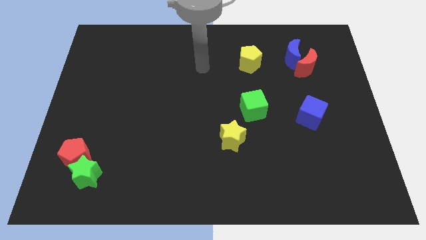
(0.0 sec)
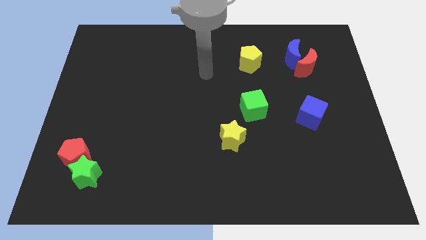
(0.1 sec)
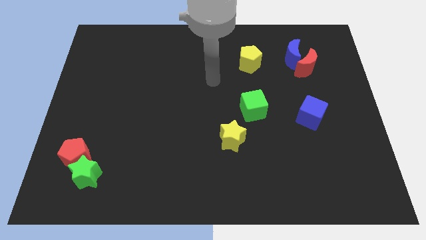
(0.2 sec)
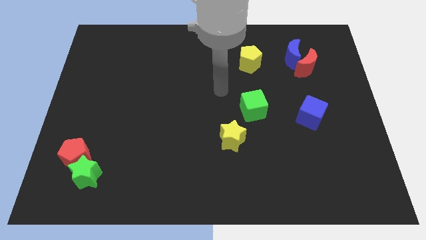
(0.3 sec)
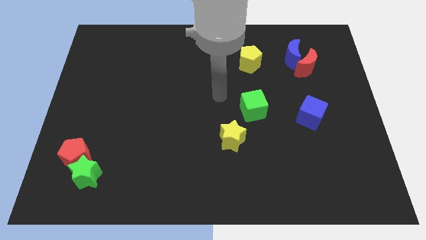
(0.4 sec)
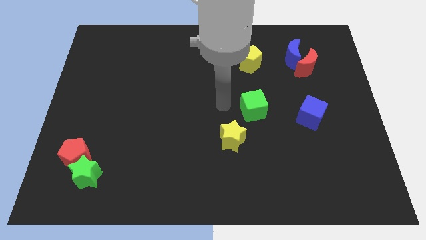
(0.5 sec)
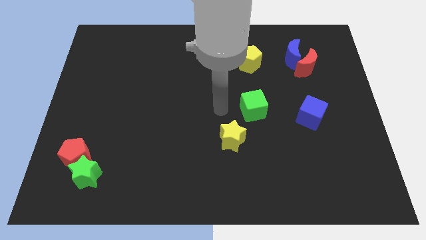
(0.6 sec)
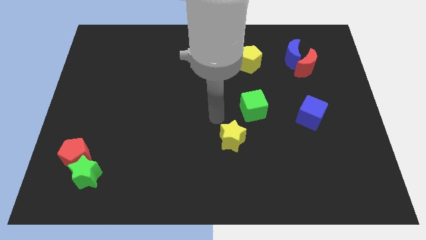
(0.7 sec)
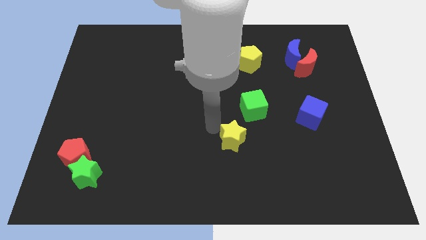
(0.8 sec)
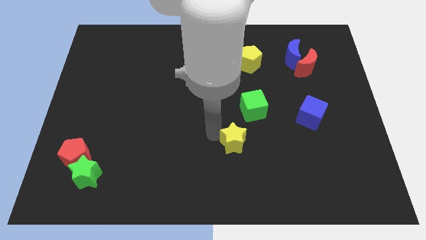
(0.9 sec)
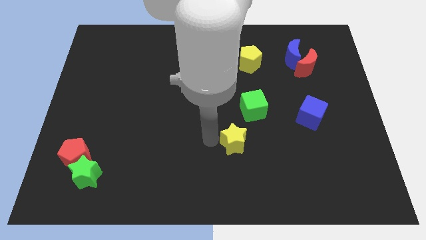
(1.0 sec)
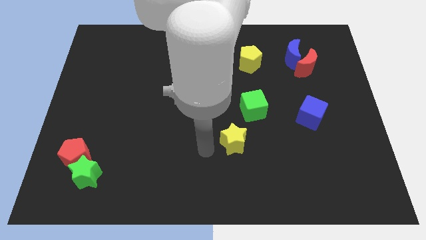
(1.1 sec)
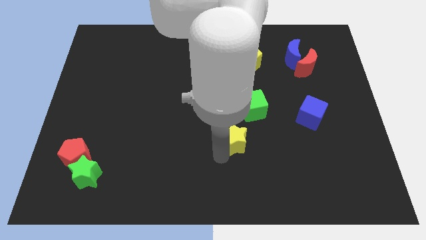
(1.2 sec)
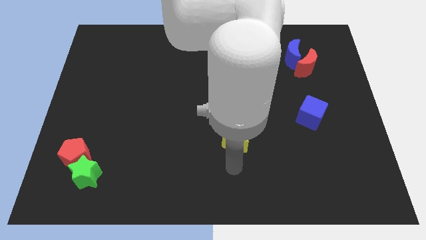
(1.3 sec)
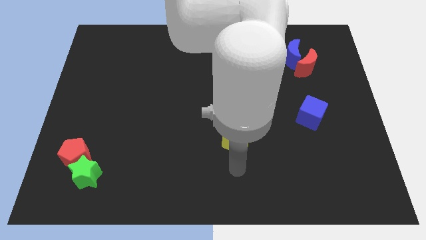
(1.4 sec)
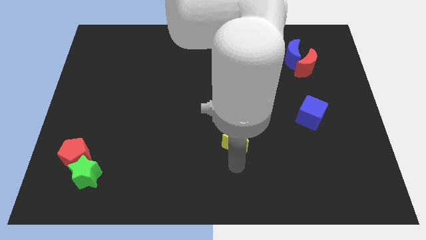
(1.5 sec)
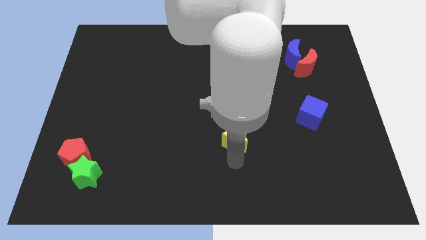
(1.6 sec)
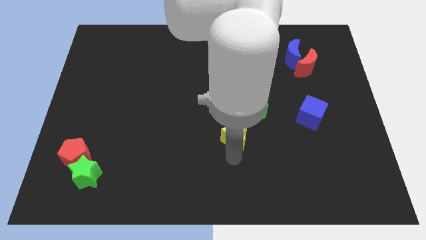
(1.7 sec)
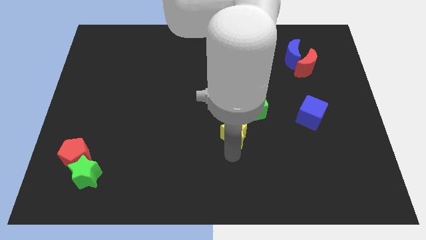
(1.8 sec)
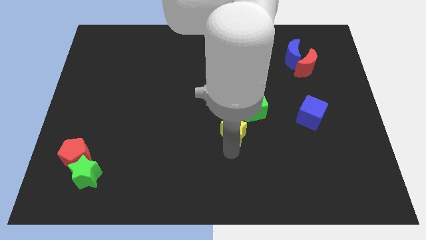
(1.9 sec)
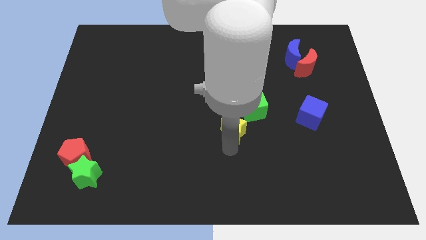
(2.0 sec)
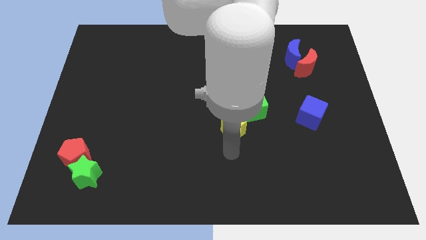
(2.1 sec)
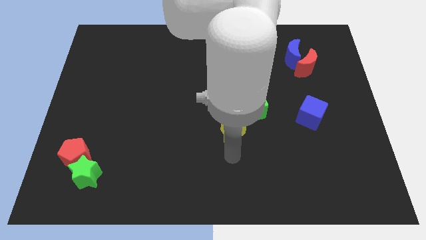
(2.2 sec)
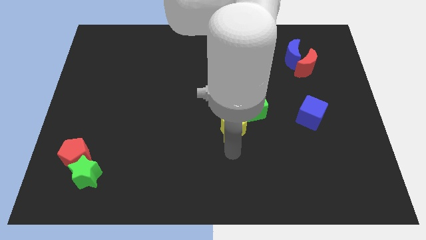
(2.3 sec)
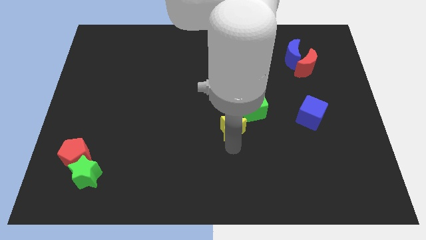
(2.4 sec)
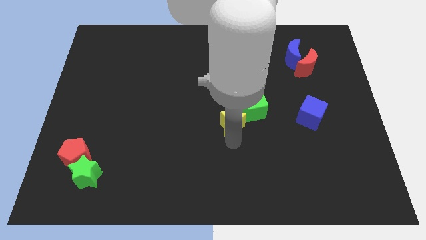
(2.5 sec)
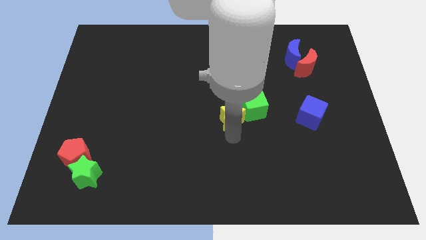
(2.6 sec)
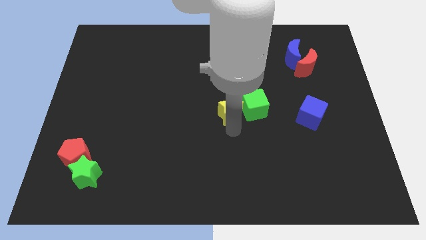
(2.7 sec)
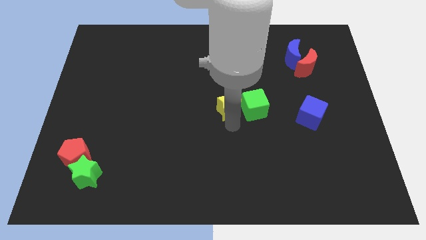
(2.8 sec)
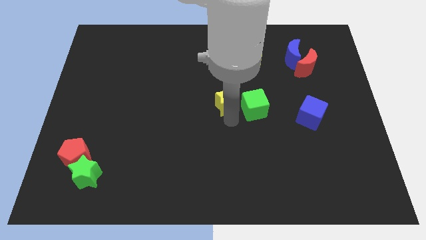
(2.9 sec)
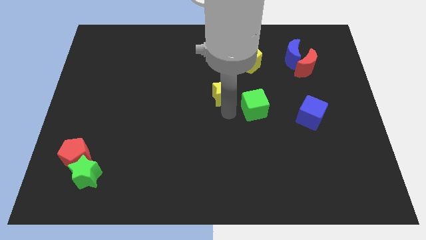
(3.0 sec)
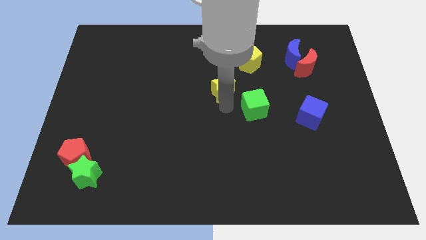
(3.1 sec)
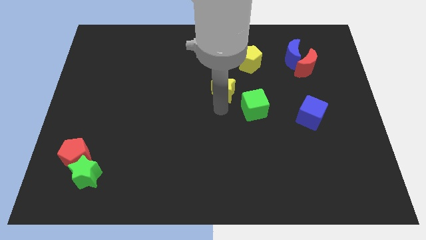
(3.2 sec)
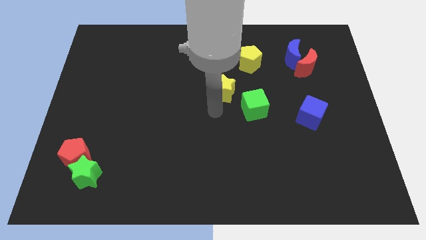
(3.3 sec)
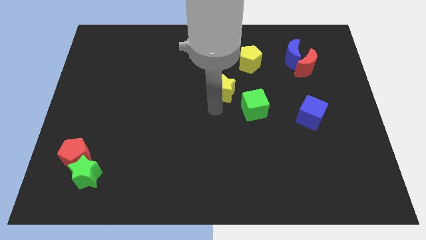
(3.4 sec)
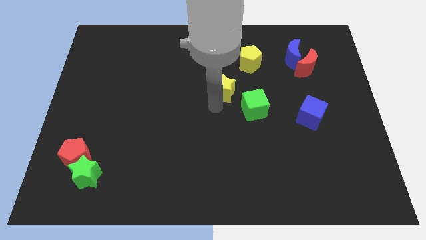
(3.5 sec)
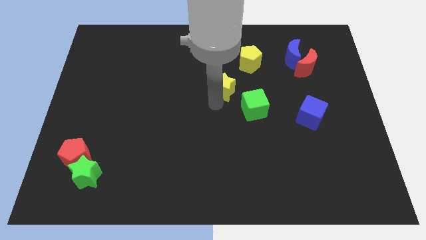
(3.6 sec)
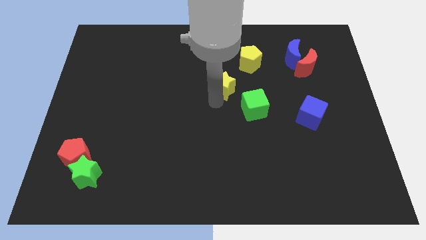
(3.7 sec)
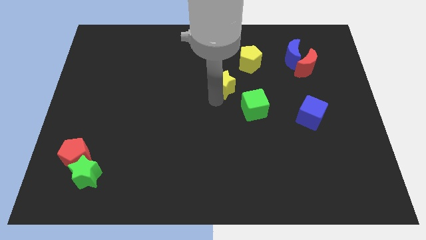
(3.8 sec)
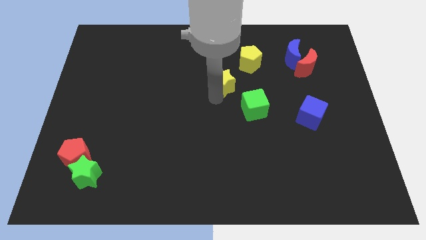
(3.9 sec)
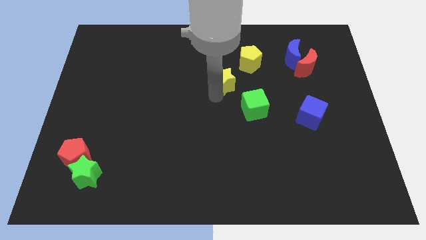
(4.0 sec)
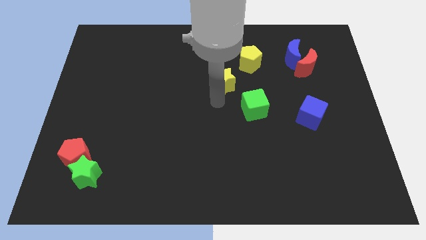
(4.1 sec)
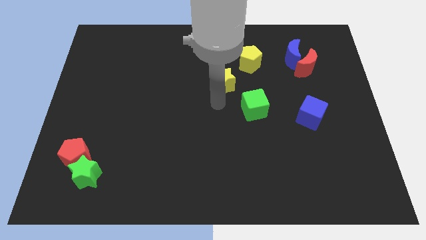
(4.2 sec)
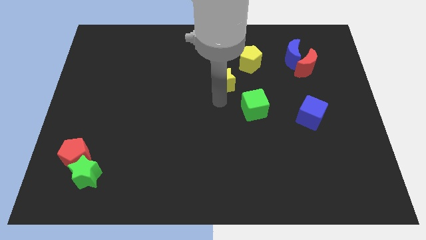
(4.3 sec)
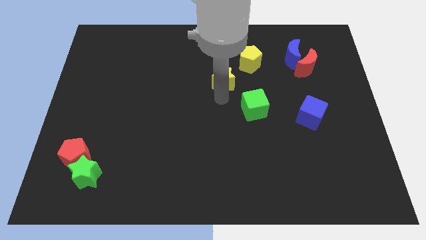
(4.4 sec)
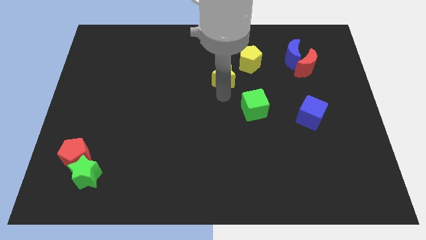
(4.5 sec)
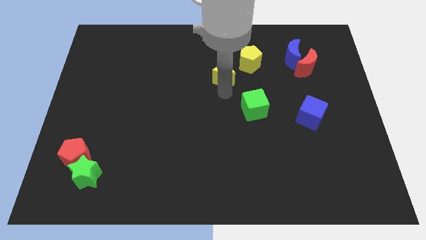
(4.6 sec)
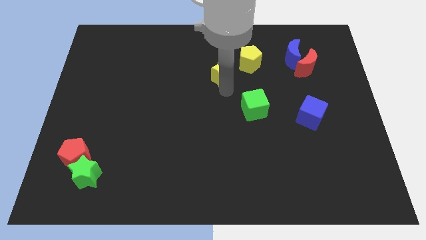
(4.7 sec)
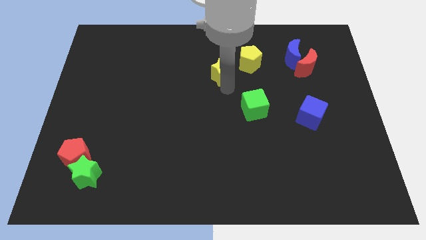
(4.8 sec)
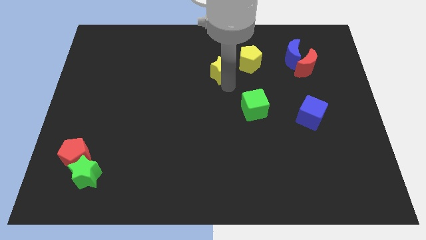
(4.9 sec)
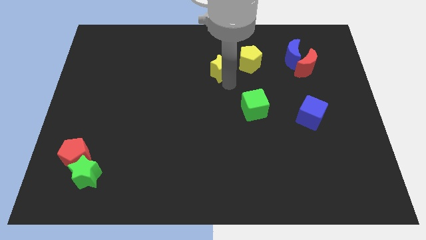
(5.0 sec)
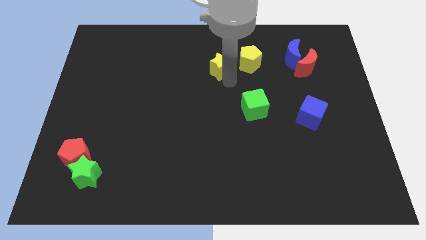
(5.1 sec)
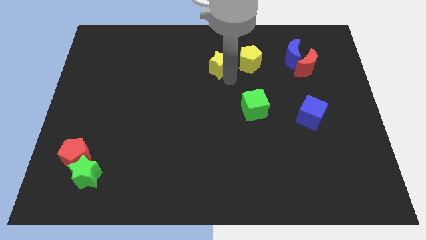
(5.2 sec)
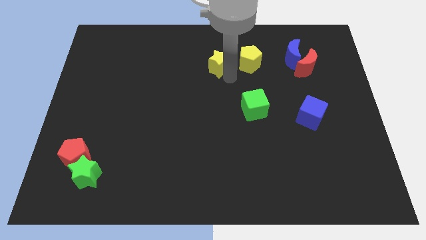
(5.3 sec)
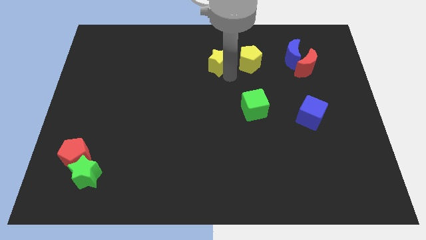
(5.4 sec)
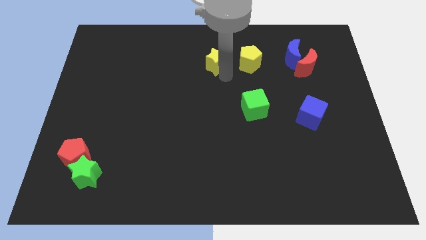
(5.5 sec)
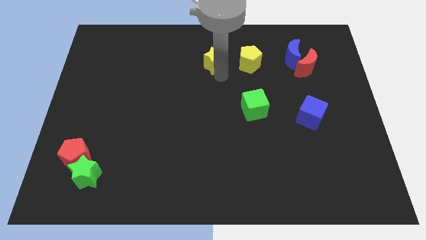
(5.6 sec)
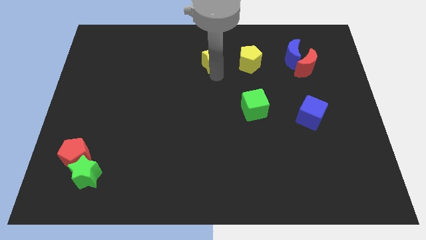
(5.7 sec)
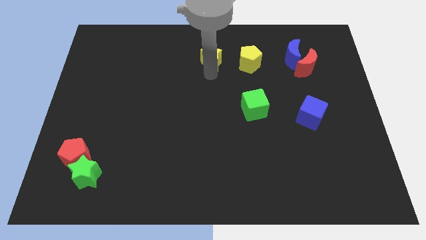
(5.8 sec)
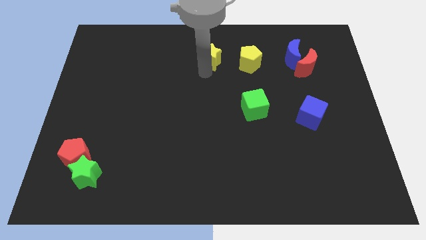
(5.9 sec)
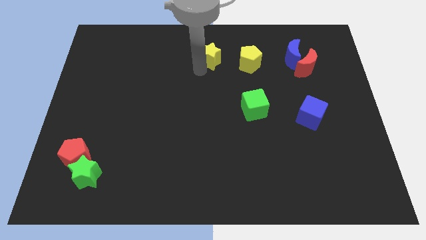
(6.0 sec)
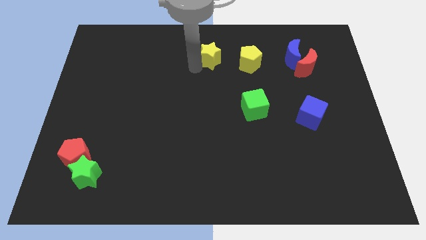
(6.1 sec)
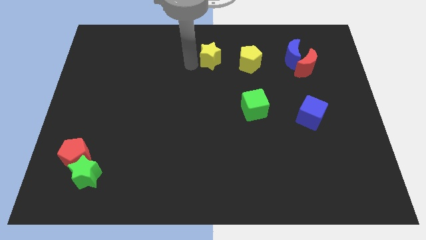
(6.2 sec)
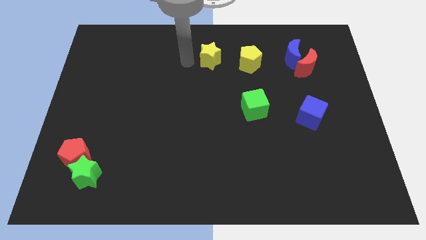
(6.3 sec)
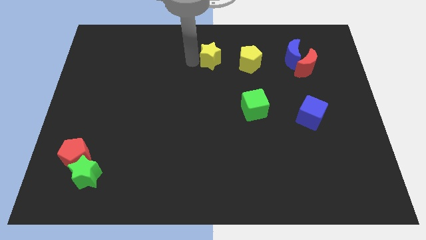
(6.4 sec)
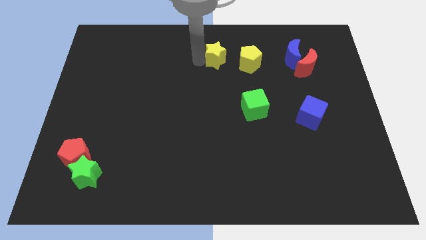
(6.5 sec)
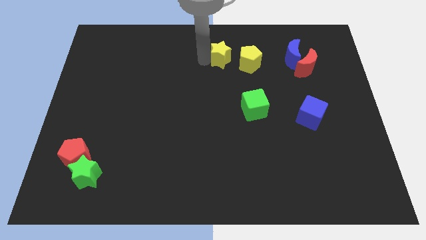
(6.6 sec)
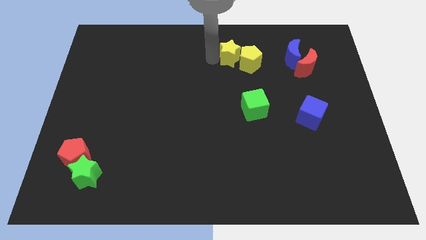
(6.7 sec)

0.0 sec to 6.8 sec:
move the yellow star to the left side of the blue moon

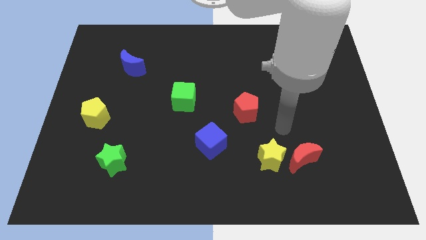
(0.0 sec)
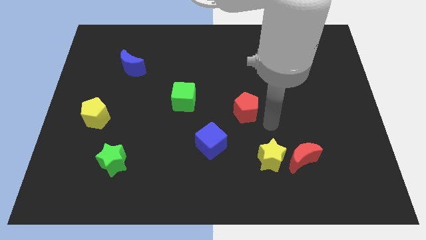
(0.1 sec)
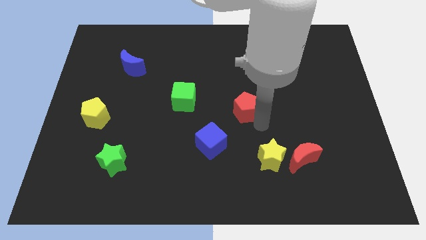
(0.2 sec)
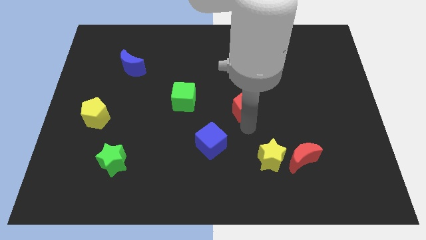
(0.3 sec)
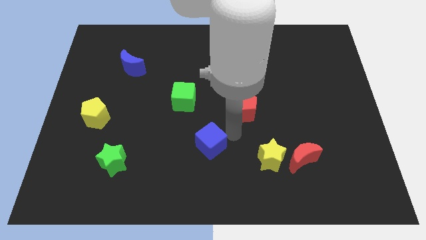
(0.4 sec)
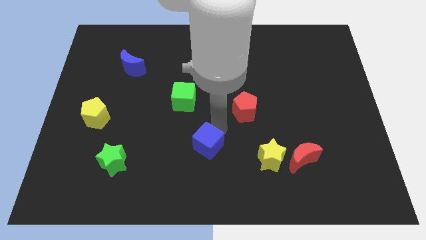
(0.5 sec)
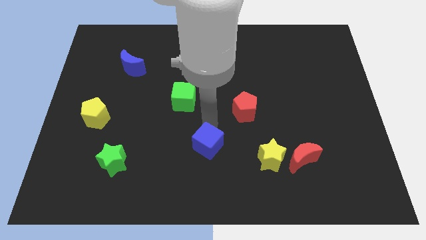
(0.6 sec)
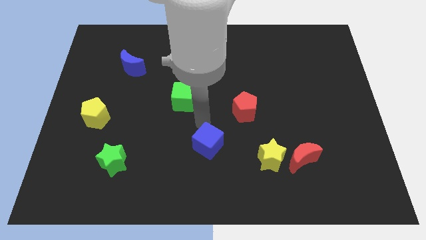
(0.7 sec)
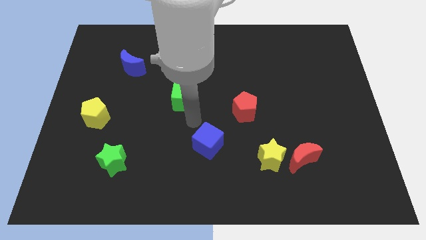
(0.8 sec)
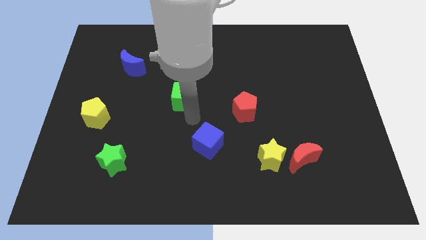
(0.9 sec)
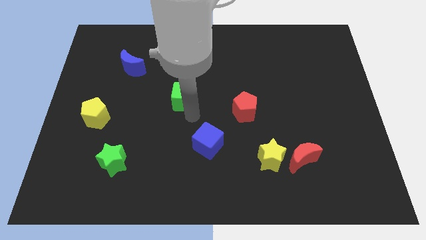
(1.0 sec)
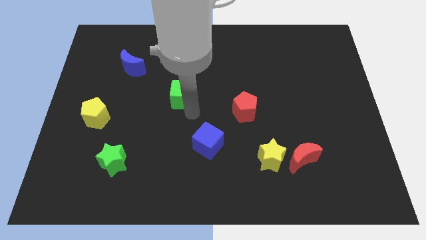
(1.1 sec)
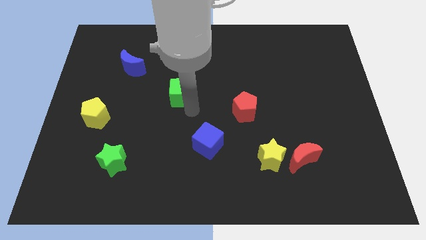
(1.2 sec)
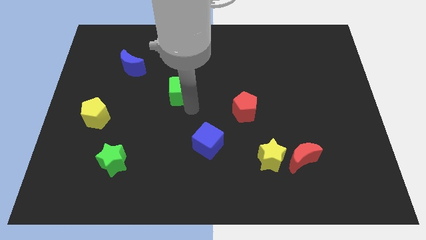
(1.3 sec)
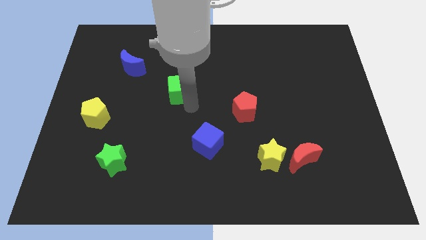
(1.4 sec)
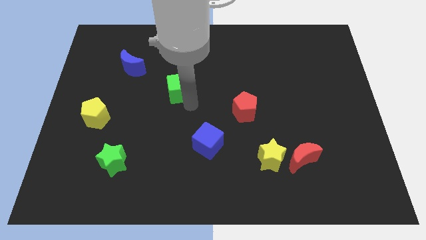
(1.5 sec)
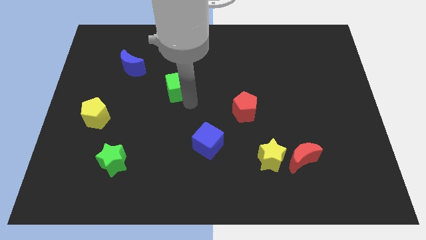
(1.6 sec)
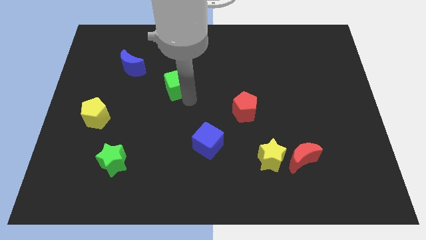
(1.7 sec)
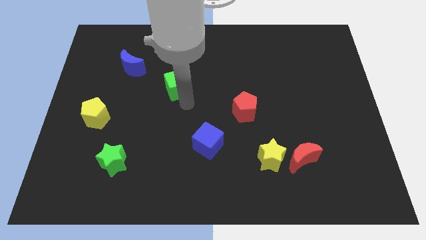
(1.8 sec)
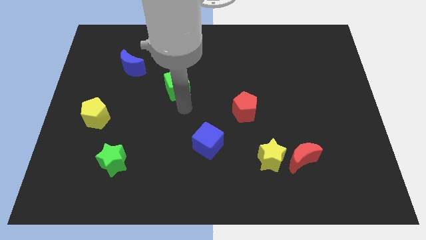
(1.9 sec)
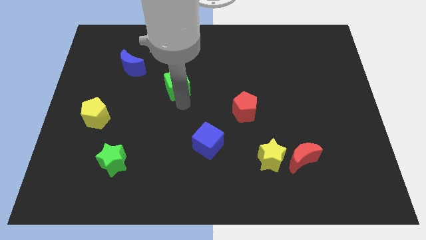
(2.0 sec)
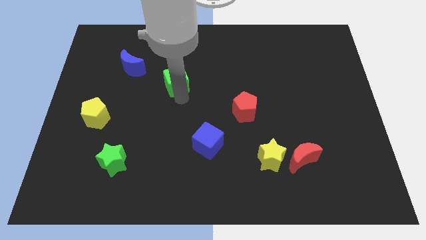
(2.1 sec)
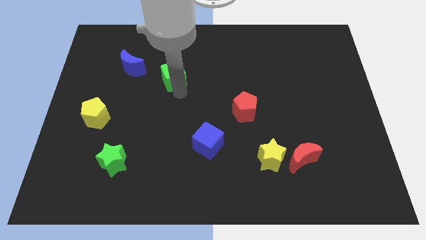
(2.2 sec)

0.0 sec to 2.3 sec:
put the green cube to the right of the blue moon
